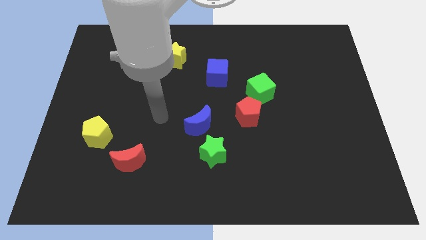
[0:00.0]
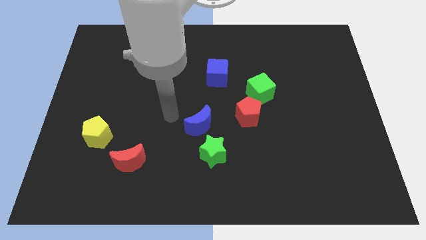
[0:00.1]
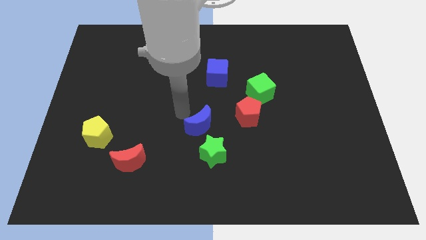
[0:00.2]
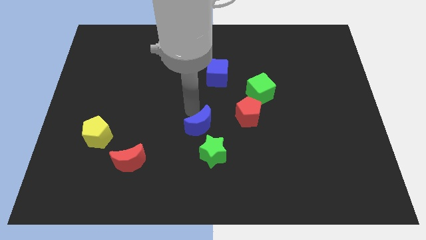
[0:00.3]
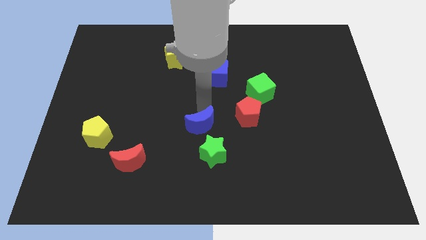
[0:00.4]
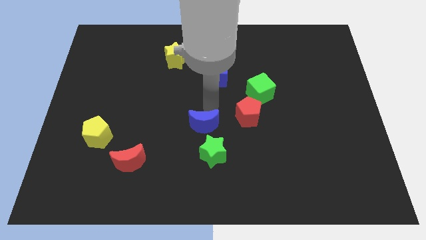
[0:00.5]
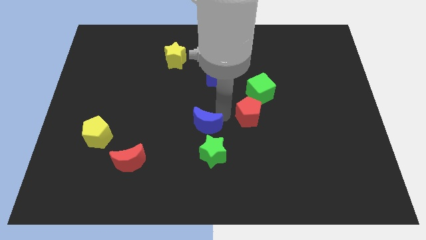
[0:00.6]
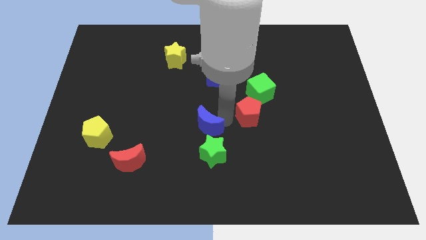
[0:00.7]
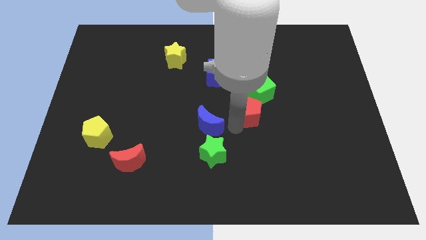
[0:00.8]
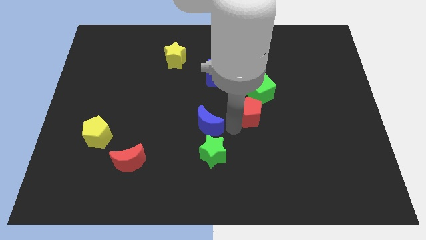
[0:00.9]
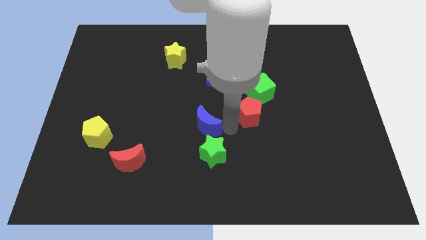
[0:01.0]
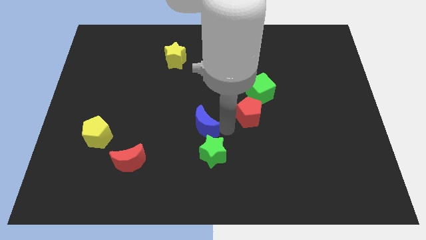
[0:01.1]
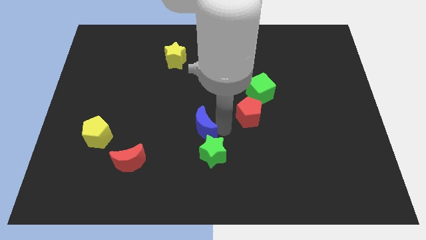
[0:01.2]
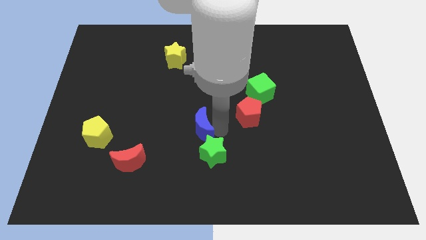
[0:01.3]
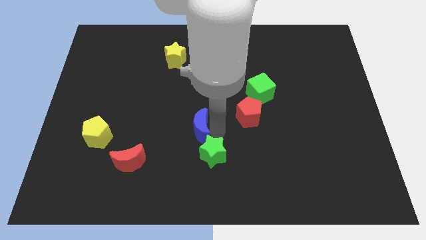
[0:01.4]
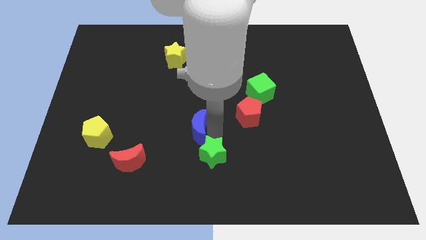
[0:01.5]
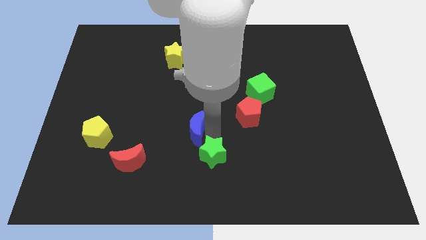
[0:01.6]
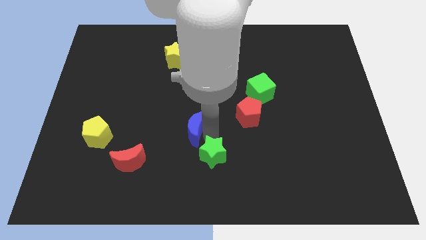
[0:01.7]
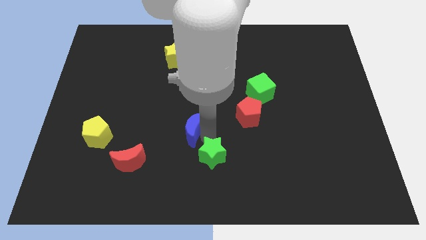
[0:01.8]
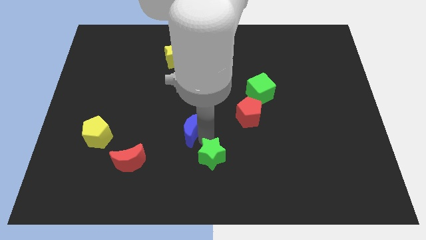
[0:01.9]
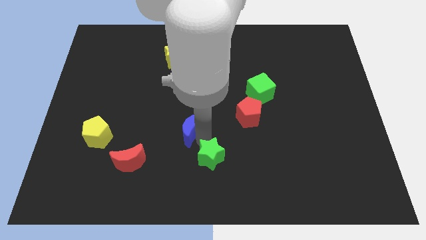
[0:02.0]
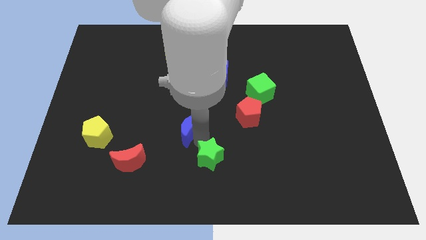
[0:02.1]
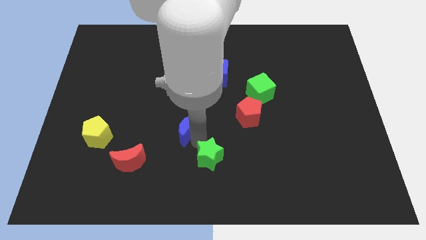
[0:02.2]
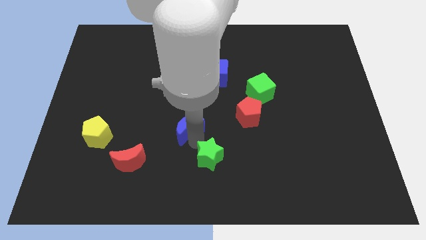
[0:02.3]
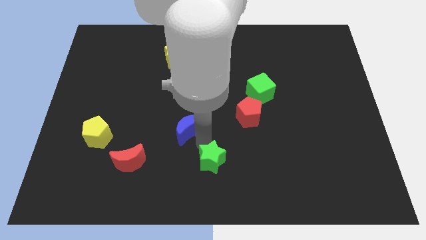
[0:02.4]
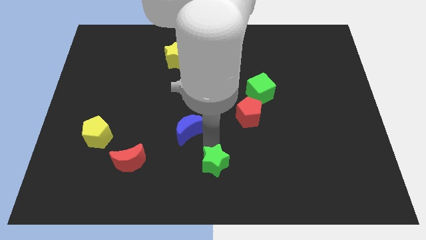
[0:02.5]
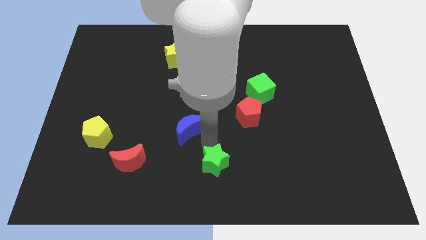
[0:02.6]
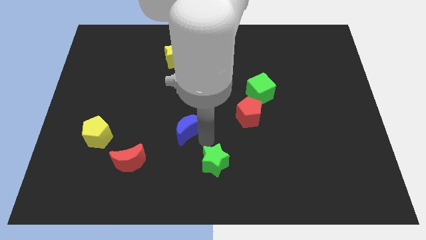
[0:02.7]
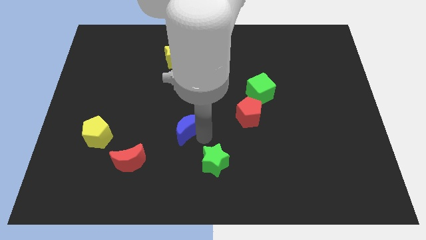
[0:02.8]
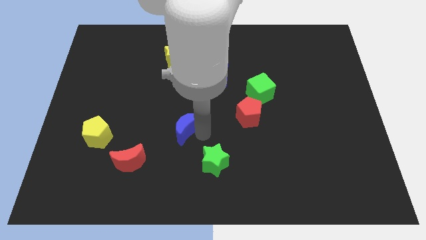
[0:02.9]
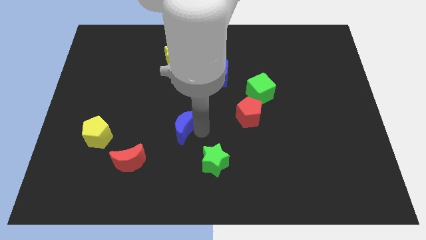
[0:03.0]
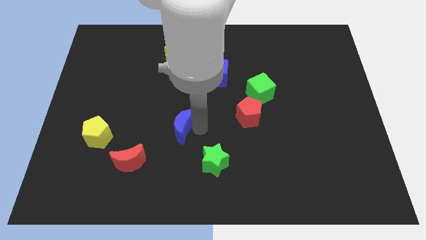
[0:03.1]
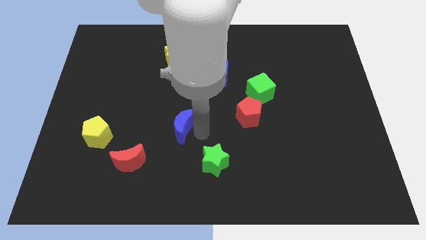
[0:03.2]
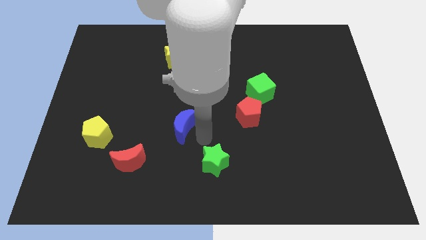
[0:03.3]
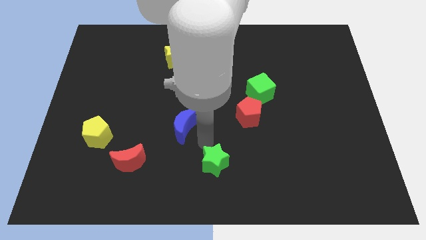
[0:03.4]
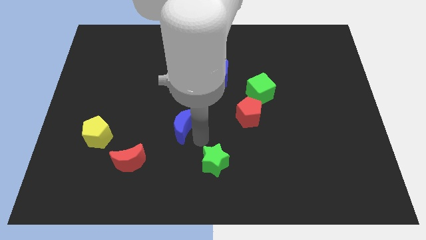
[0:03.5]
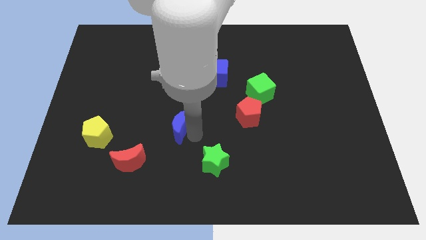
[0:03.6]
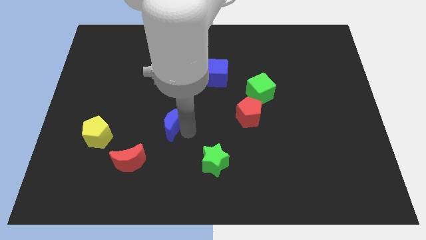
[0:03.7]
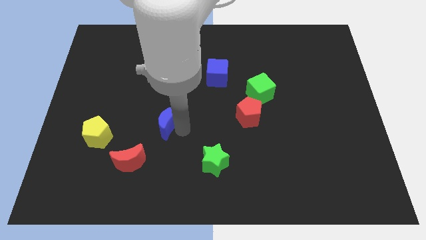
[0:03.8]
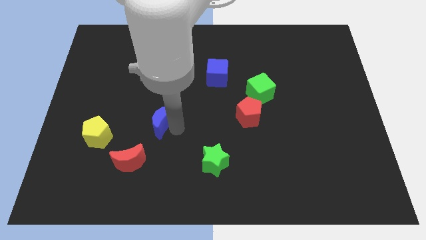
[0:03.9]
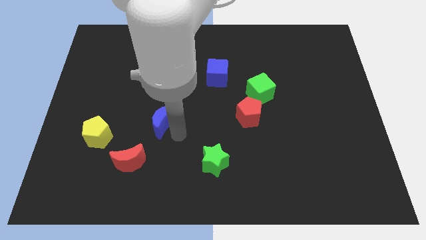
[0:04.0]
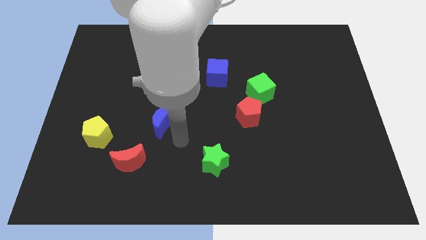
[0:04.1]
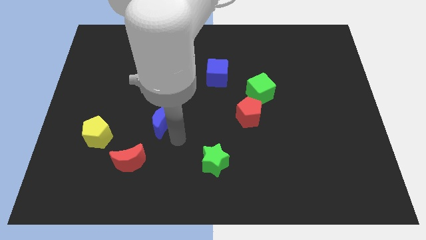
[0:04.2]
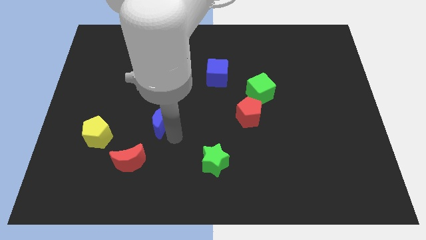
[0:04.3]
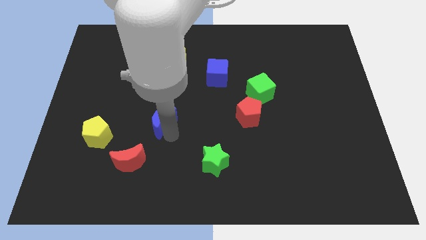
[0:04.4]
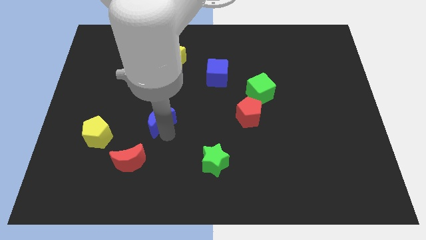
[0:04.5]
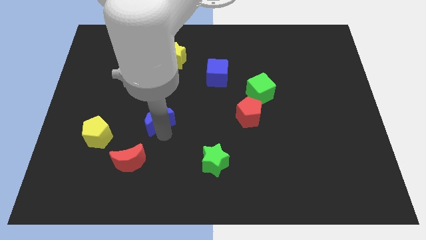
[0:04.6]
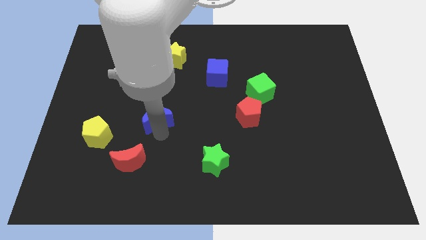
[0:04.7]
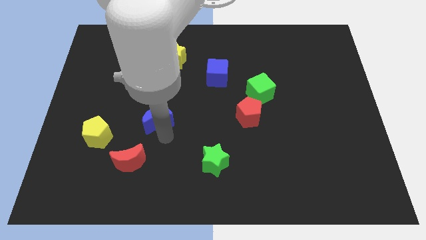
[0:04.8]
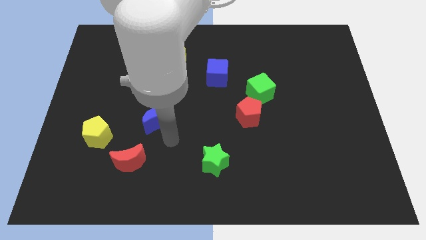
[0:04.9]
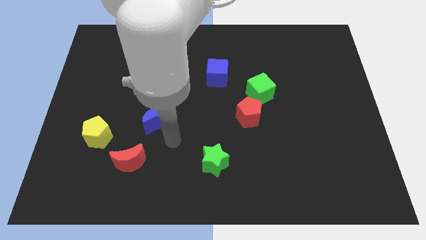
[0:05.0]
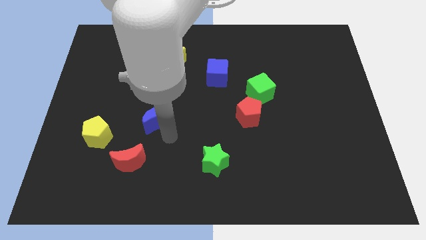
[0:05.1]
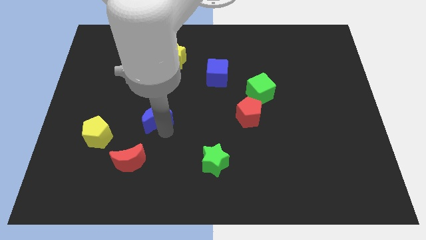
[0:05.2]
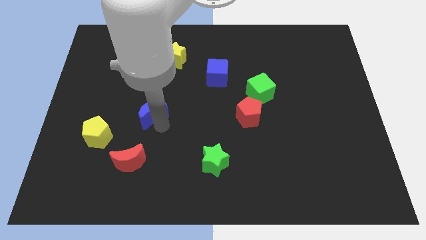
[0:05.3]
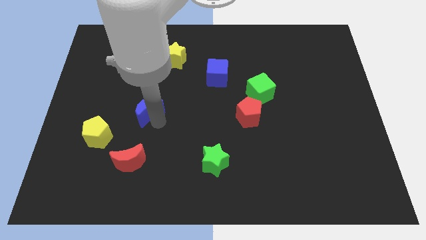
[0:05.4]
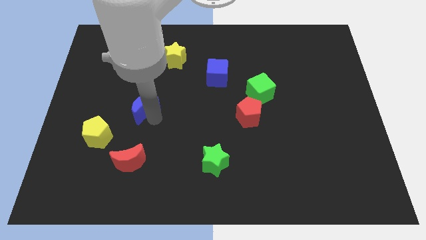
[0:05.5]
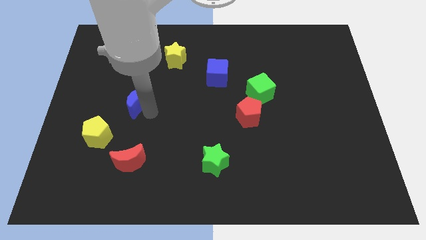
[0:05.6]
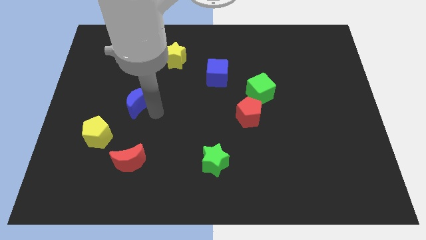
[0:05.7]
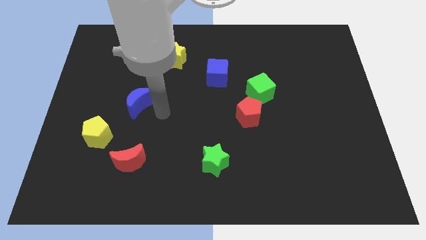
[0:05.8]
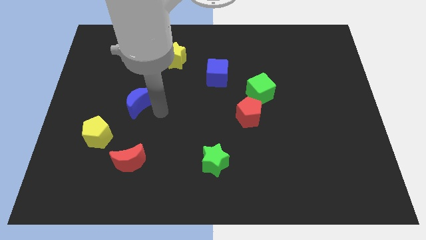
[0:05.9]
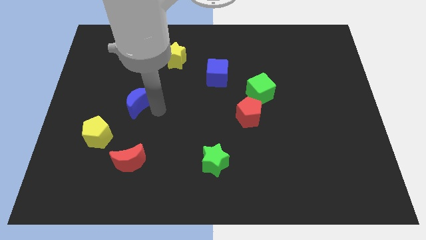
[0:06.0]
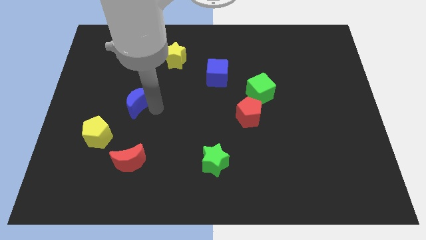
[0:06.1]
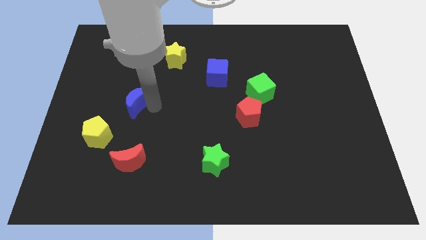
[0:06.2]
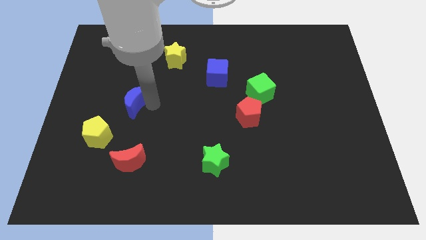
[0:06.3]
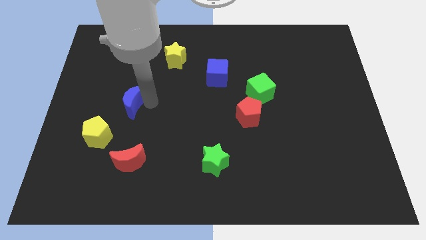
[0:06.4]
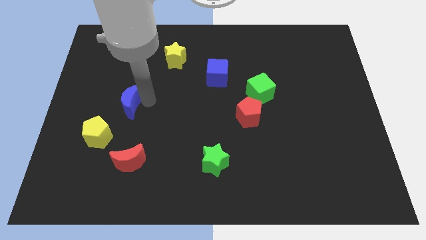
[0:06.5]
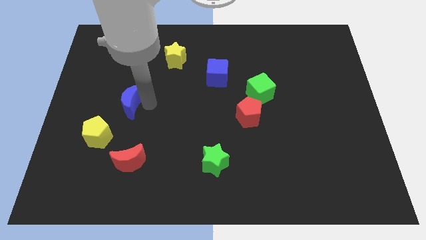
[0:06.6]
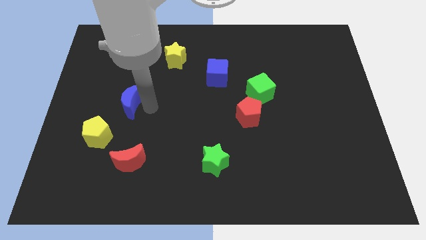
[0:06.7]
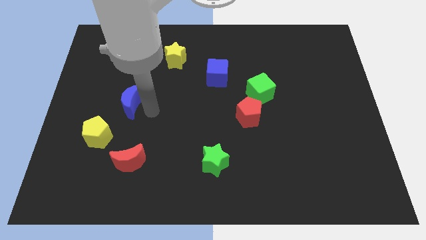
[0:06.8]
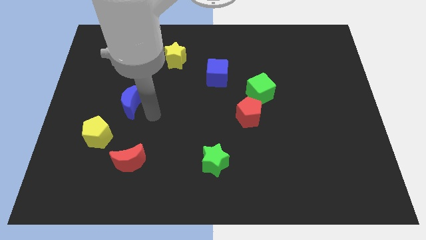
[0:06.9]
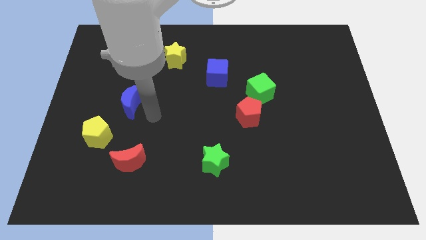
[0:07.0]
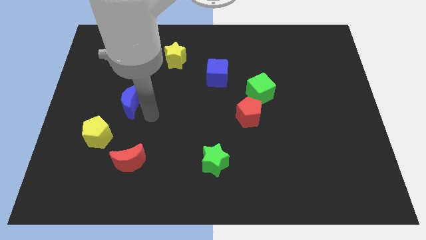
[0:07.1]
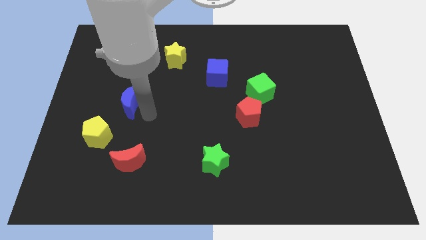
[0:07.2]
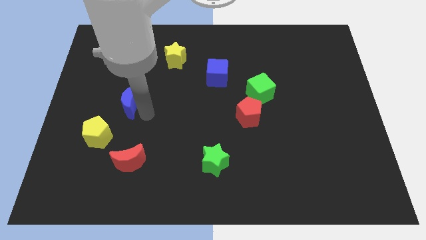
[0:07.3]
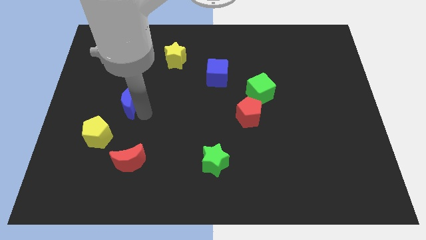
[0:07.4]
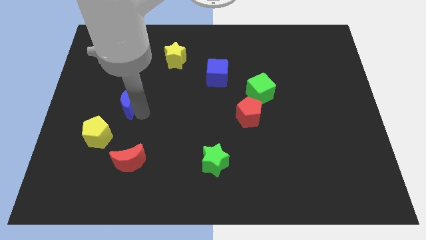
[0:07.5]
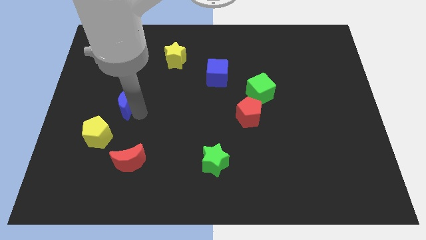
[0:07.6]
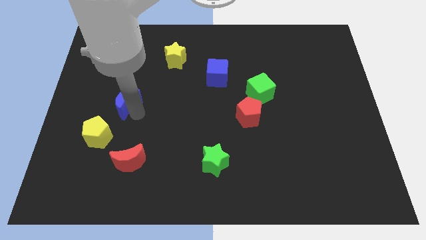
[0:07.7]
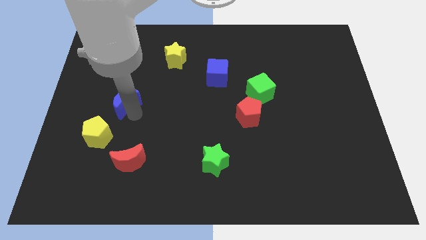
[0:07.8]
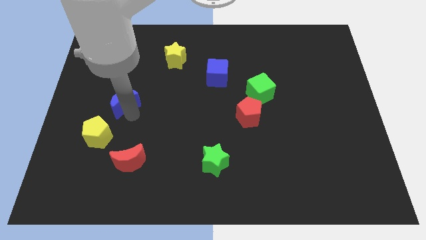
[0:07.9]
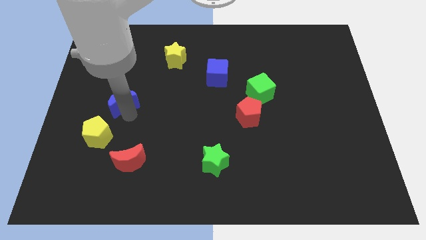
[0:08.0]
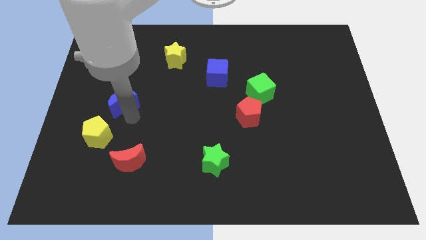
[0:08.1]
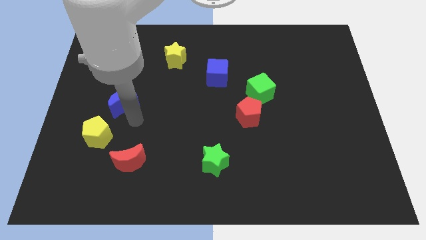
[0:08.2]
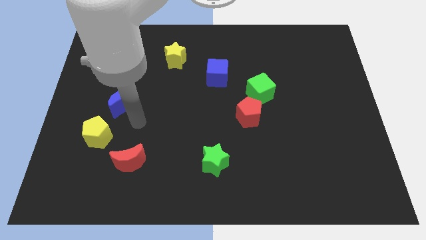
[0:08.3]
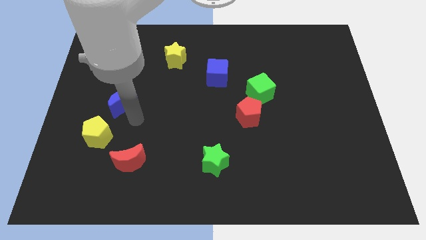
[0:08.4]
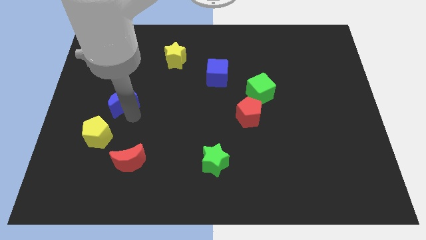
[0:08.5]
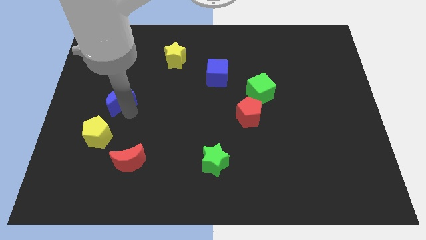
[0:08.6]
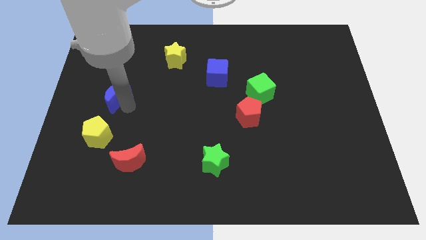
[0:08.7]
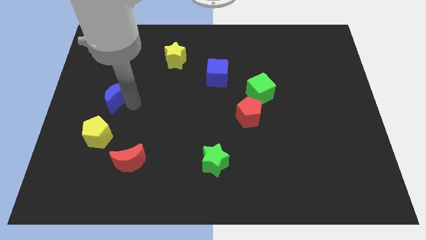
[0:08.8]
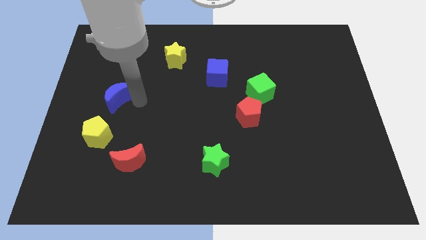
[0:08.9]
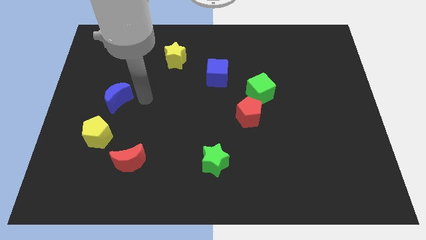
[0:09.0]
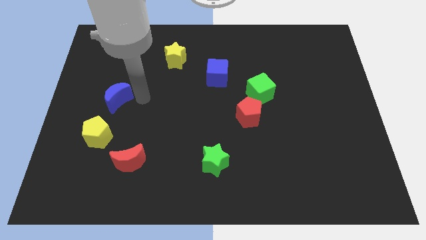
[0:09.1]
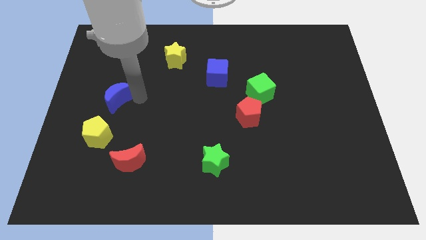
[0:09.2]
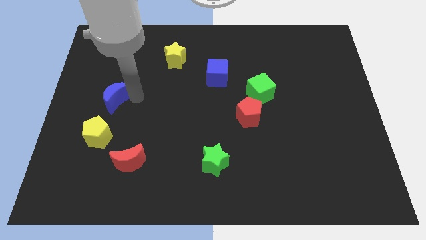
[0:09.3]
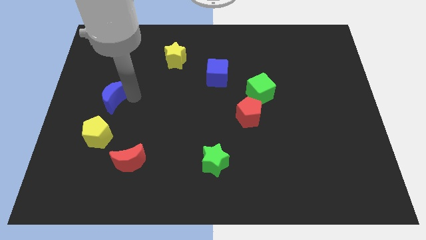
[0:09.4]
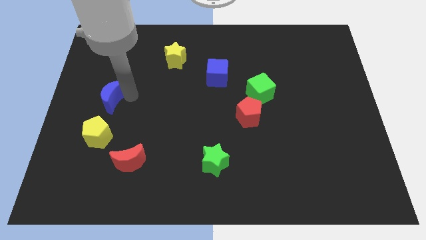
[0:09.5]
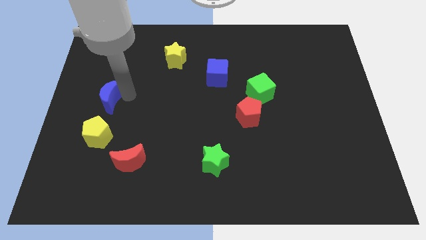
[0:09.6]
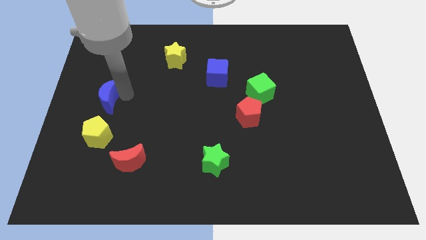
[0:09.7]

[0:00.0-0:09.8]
put the blue moon to the left side of the board
